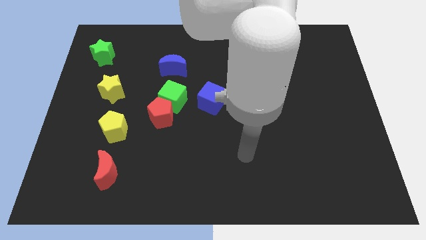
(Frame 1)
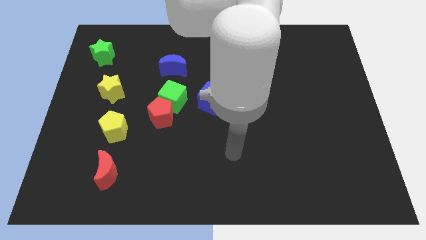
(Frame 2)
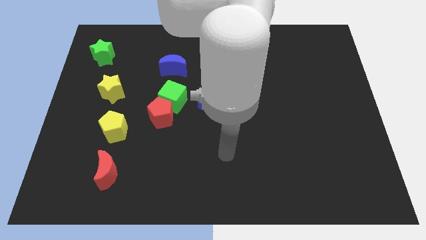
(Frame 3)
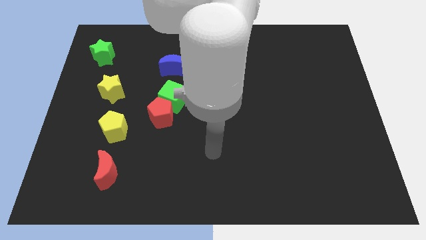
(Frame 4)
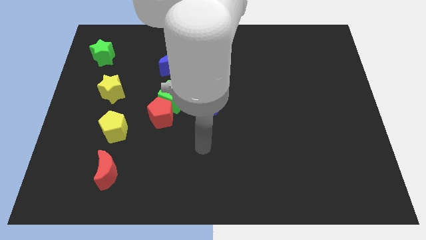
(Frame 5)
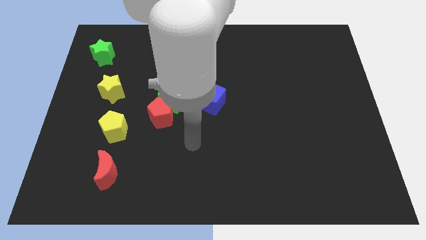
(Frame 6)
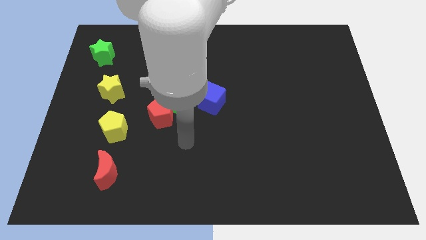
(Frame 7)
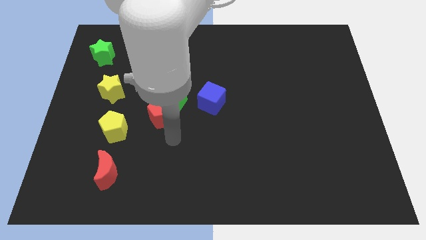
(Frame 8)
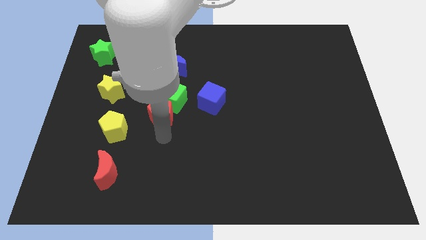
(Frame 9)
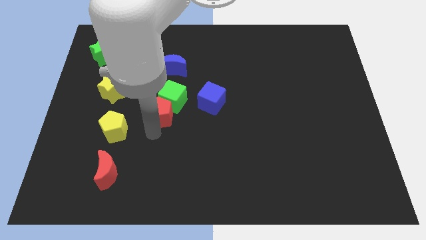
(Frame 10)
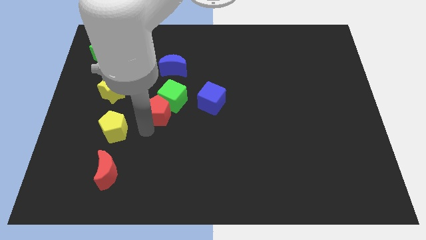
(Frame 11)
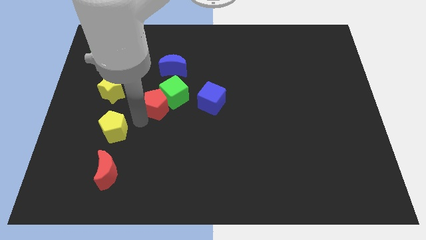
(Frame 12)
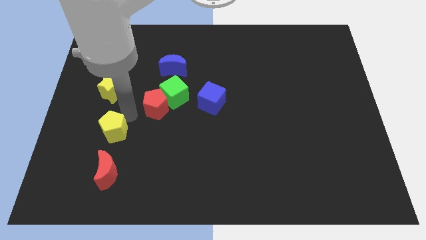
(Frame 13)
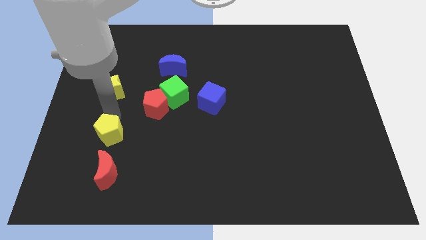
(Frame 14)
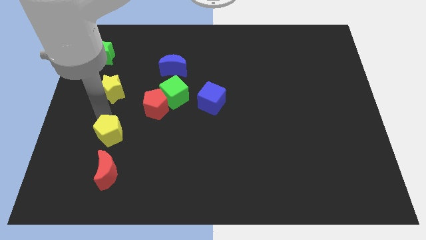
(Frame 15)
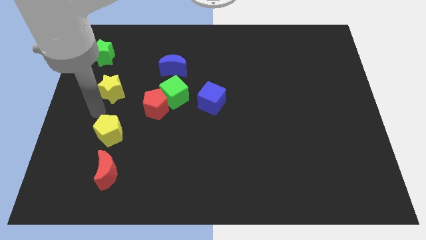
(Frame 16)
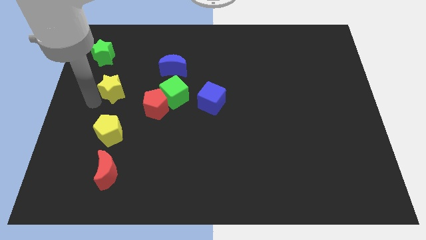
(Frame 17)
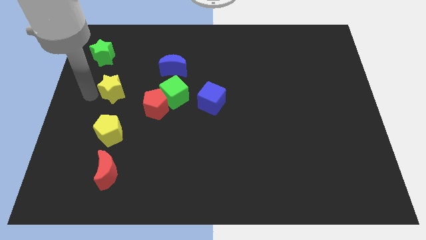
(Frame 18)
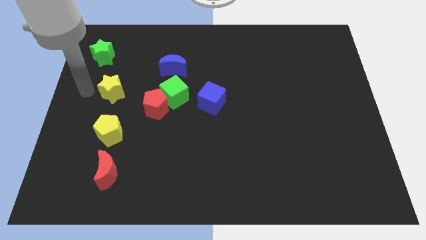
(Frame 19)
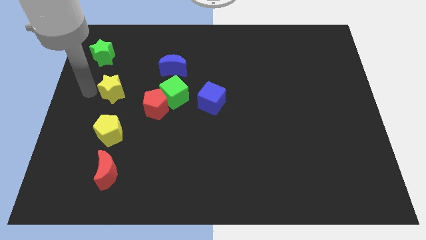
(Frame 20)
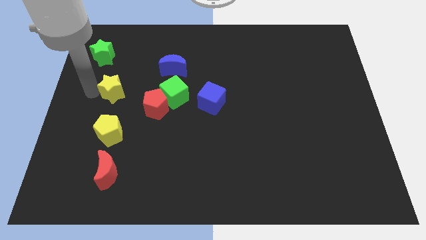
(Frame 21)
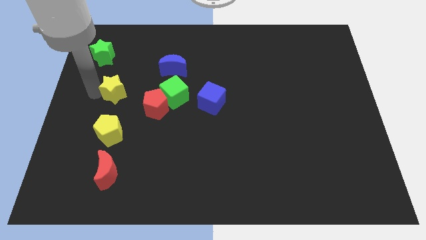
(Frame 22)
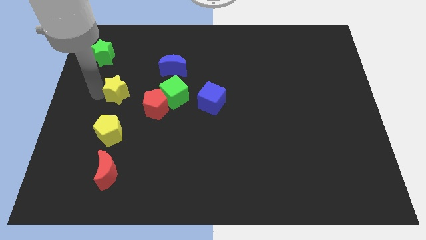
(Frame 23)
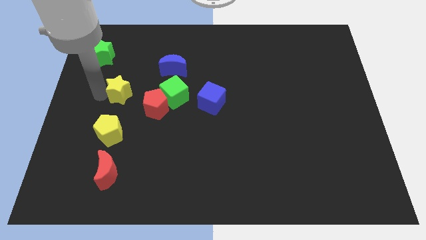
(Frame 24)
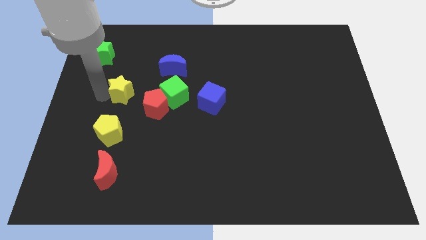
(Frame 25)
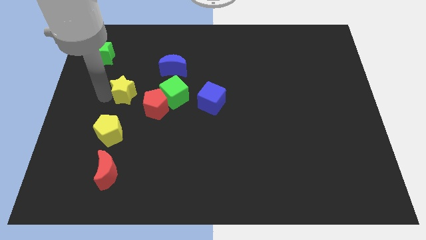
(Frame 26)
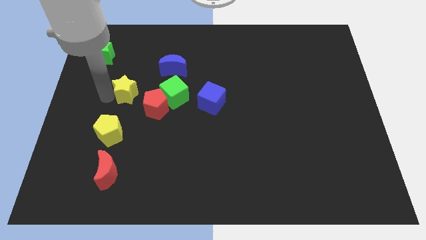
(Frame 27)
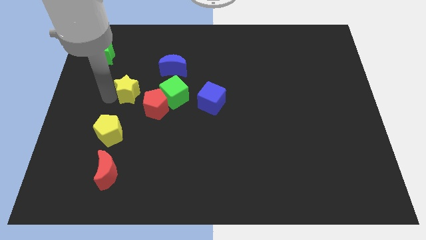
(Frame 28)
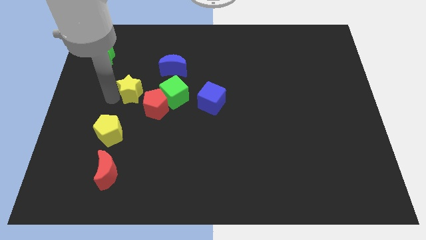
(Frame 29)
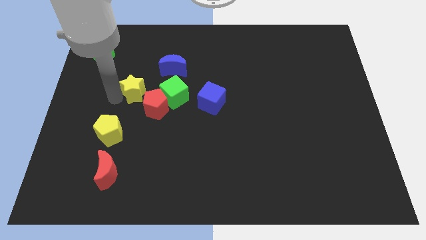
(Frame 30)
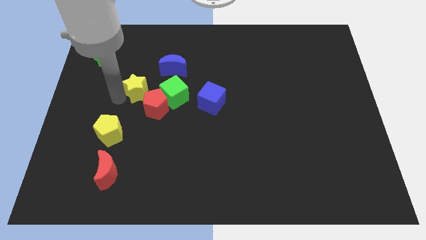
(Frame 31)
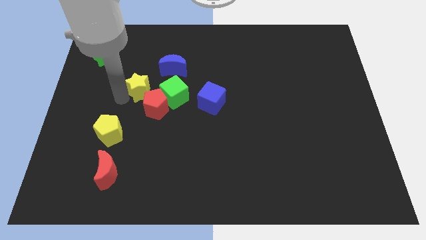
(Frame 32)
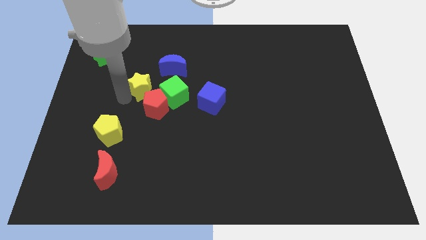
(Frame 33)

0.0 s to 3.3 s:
slide the yellow star a little right

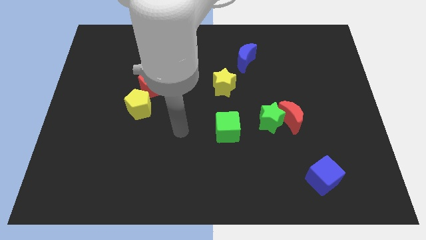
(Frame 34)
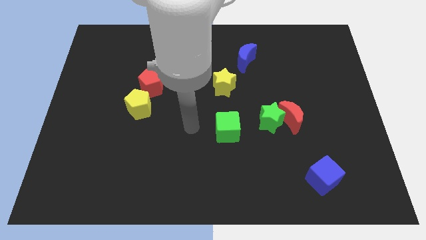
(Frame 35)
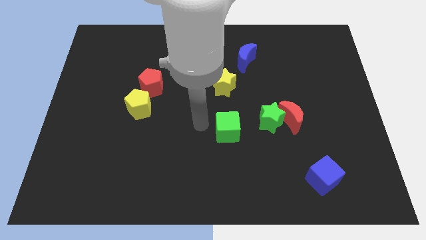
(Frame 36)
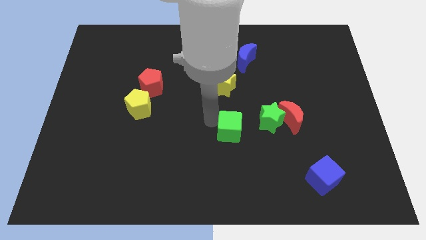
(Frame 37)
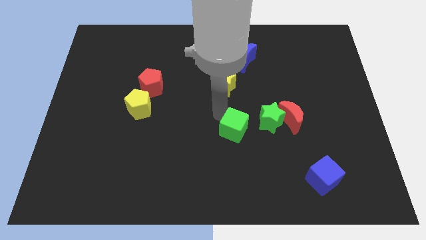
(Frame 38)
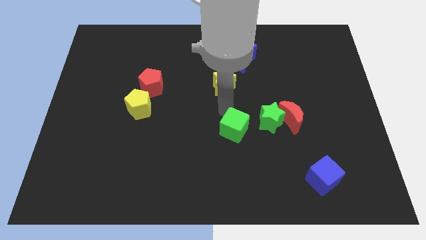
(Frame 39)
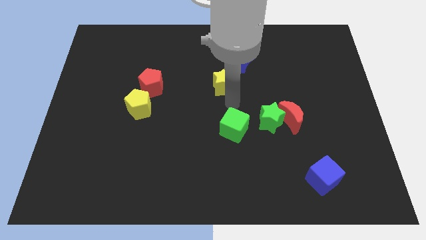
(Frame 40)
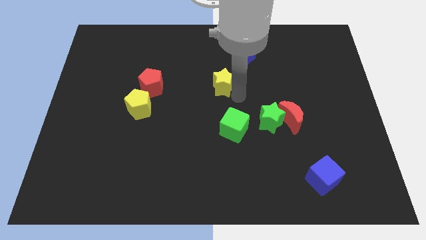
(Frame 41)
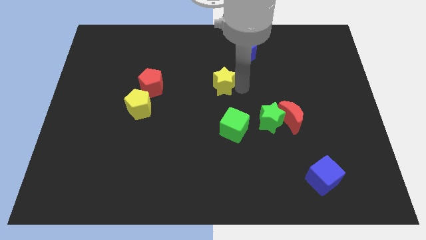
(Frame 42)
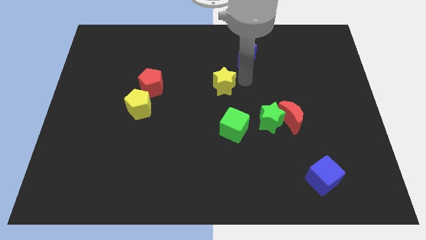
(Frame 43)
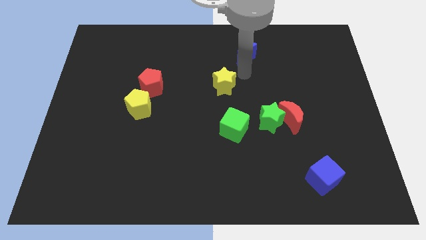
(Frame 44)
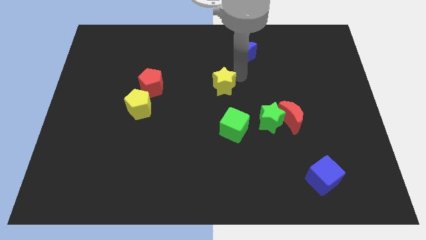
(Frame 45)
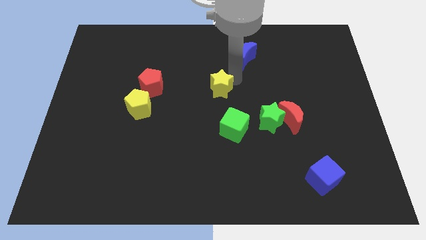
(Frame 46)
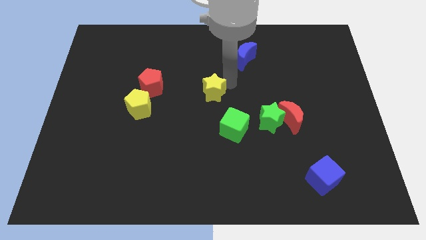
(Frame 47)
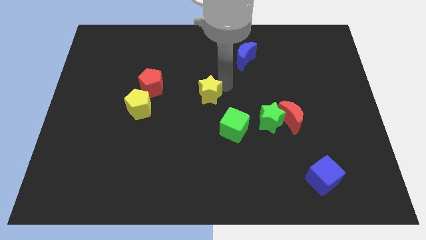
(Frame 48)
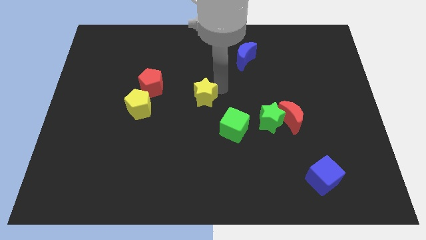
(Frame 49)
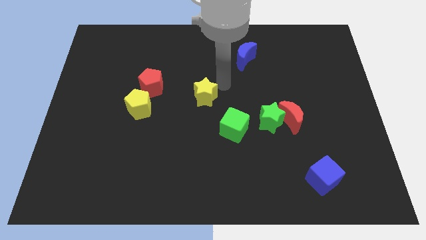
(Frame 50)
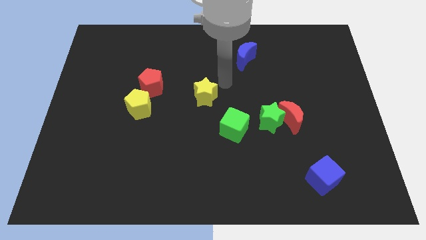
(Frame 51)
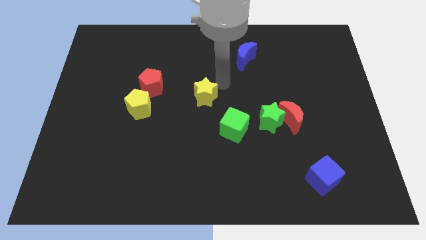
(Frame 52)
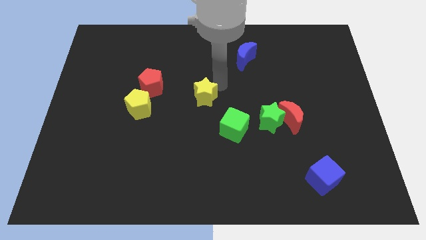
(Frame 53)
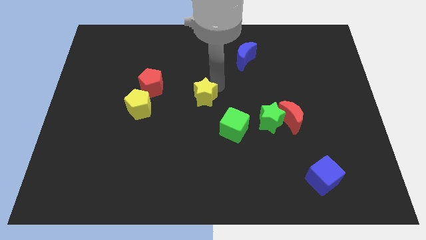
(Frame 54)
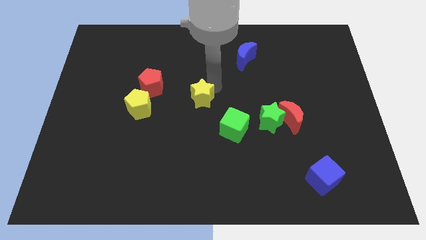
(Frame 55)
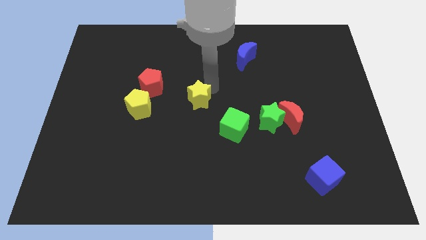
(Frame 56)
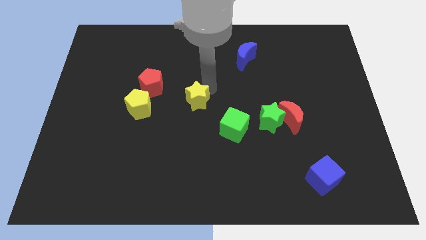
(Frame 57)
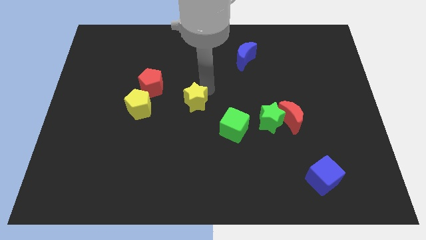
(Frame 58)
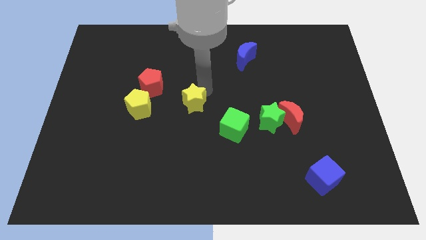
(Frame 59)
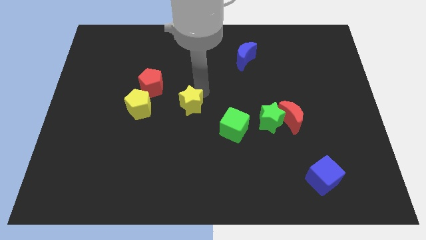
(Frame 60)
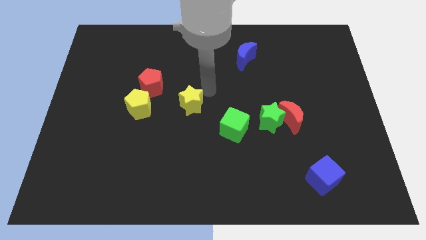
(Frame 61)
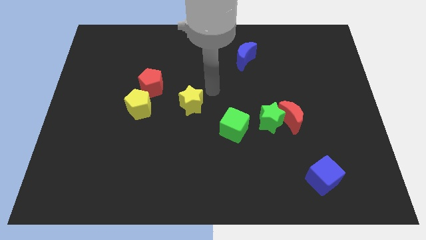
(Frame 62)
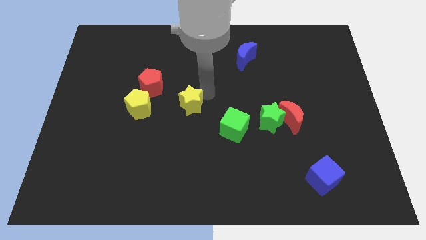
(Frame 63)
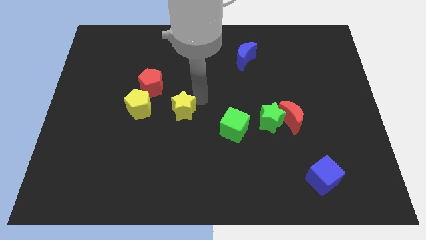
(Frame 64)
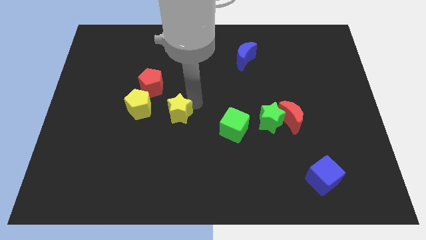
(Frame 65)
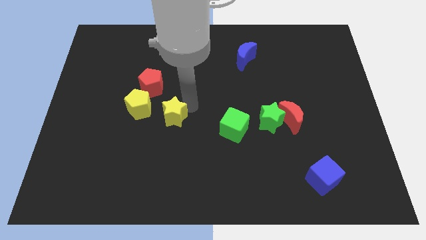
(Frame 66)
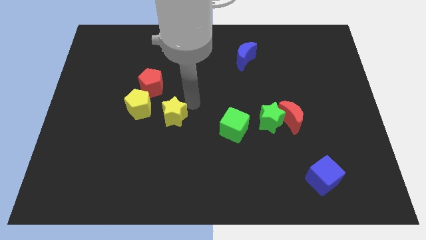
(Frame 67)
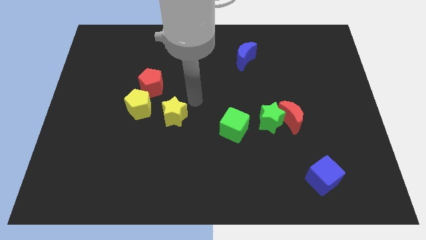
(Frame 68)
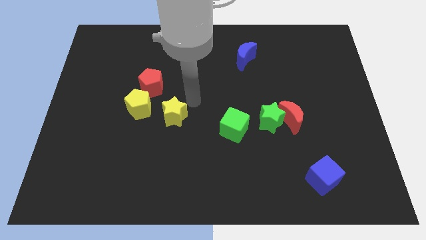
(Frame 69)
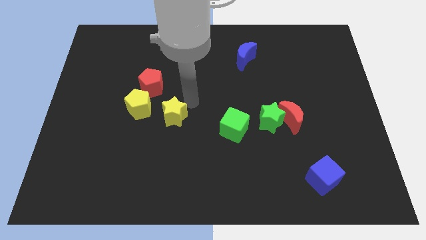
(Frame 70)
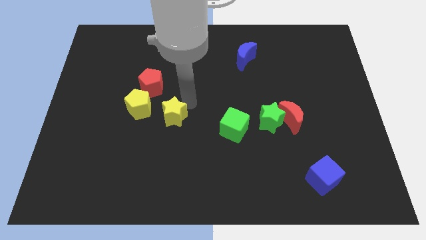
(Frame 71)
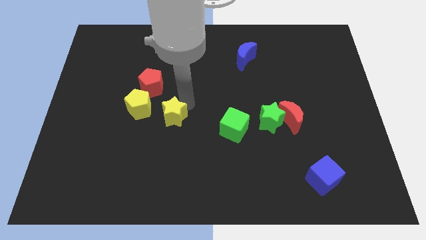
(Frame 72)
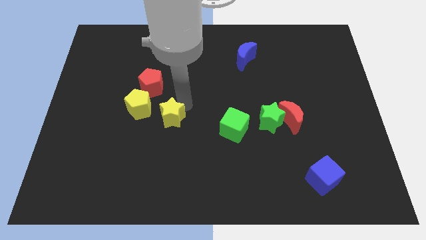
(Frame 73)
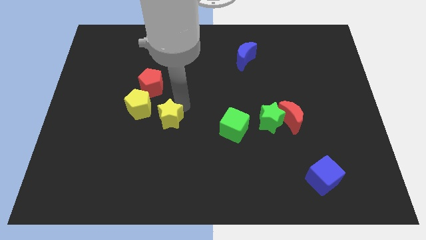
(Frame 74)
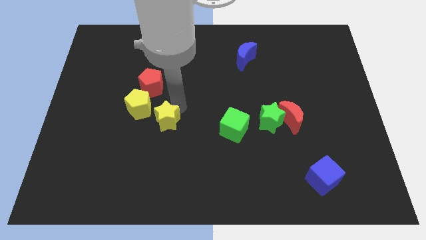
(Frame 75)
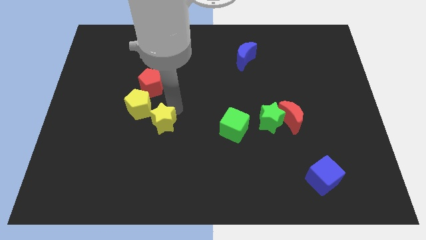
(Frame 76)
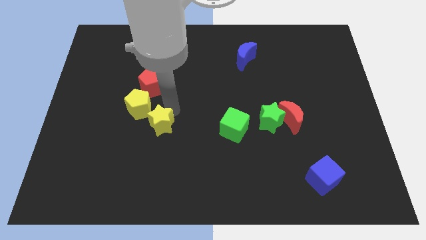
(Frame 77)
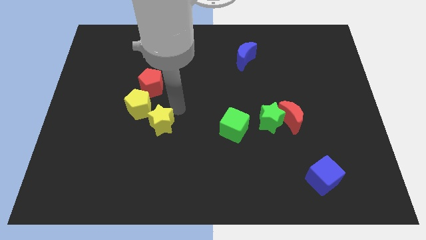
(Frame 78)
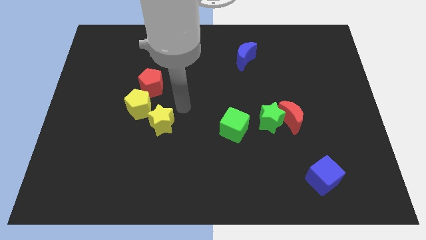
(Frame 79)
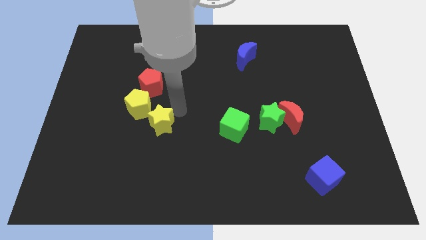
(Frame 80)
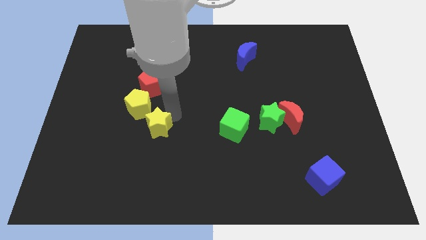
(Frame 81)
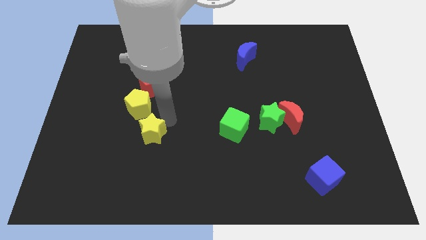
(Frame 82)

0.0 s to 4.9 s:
slide the yellow star down and then to the left
